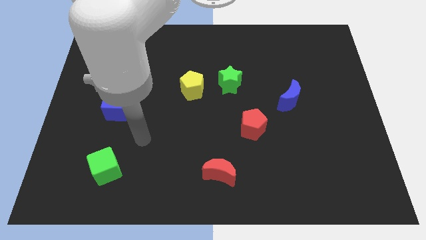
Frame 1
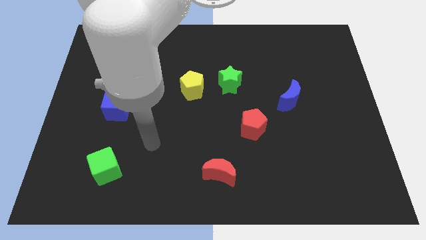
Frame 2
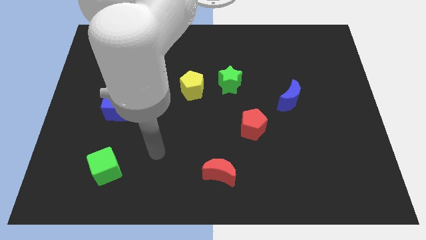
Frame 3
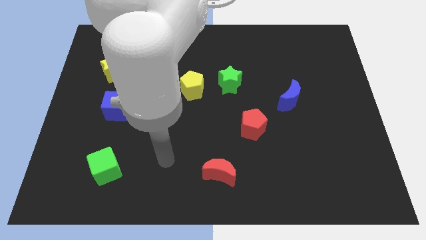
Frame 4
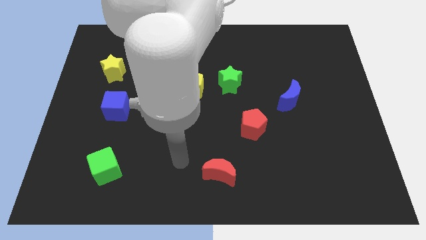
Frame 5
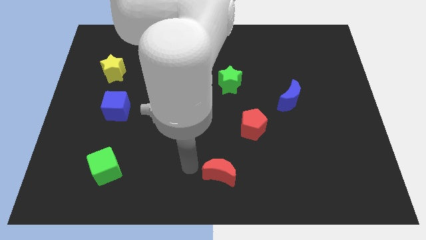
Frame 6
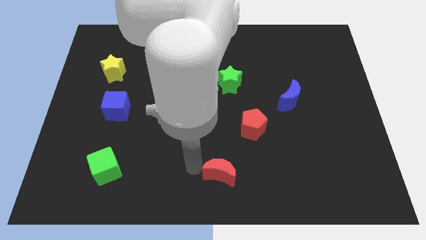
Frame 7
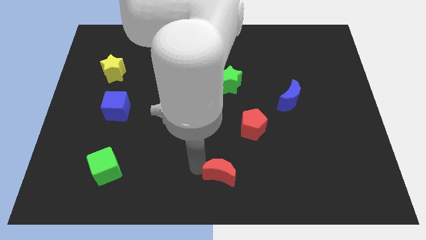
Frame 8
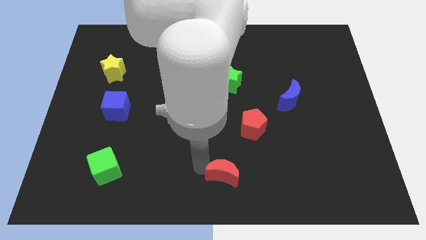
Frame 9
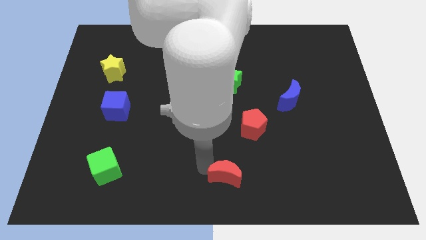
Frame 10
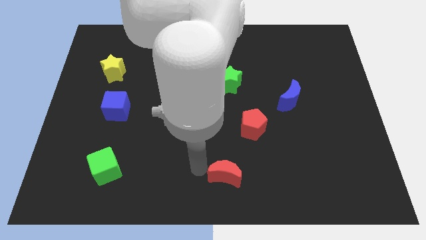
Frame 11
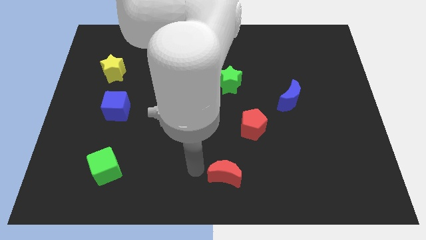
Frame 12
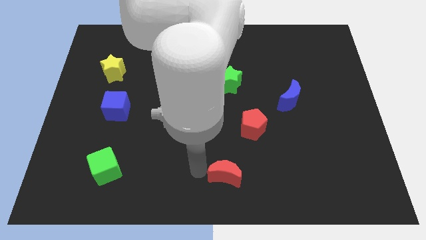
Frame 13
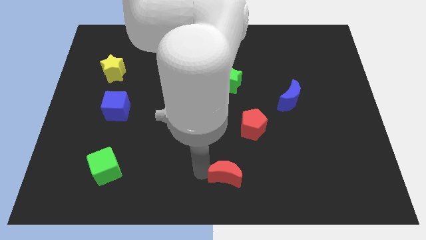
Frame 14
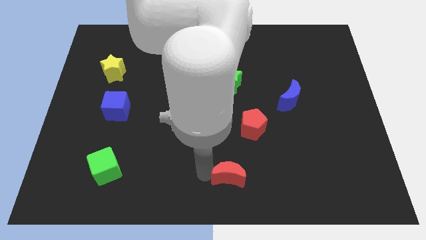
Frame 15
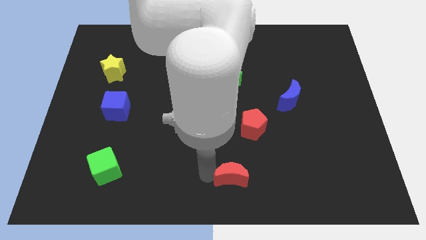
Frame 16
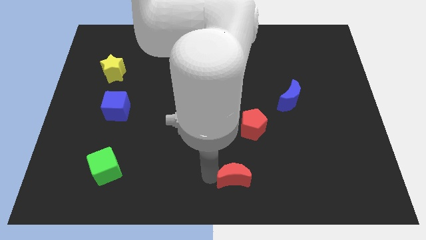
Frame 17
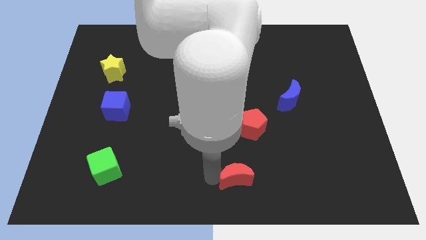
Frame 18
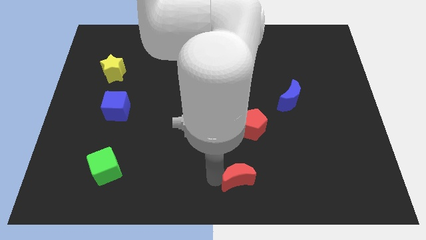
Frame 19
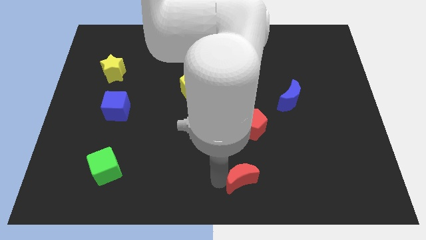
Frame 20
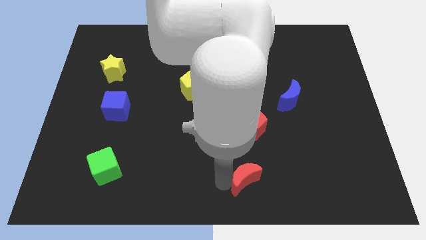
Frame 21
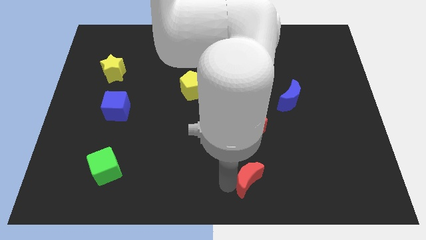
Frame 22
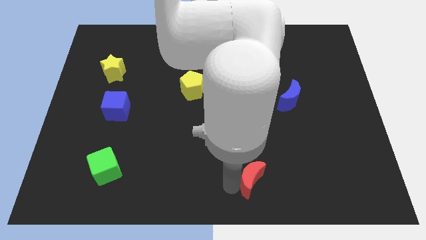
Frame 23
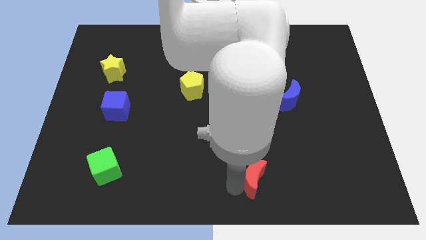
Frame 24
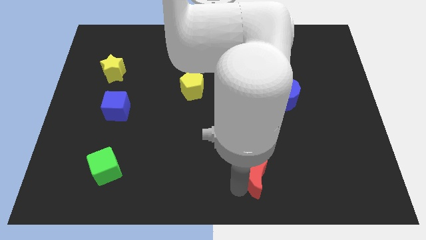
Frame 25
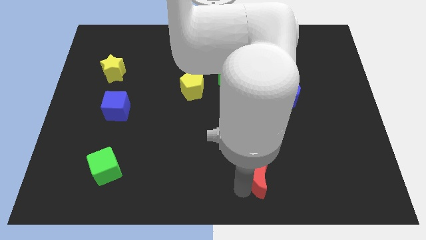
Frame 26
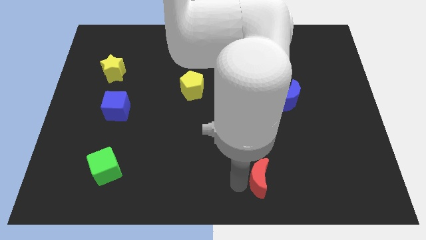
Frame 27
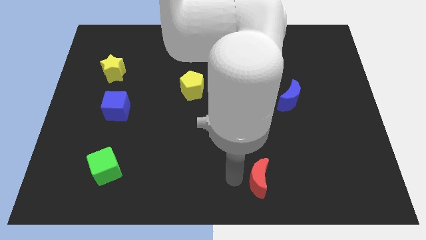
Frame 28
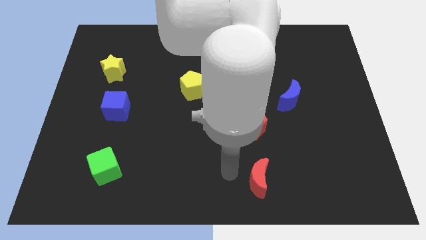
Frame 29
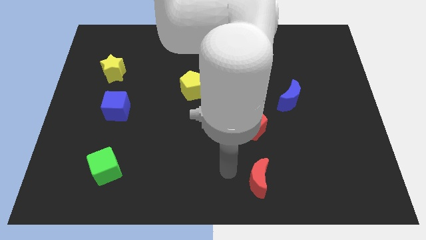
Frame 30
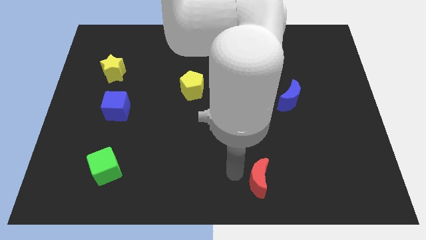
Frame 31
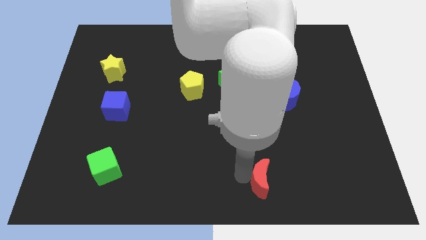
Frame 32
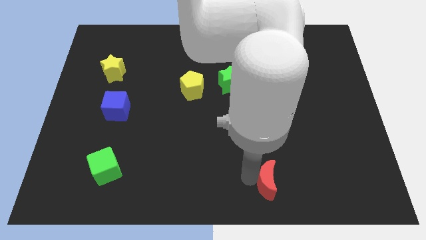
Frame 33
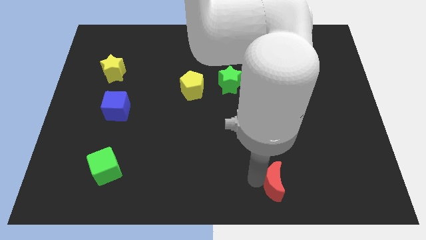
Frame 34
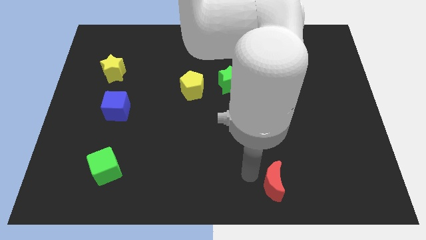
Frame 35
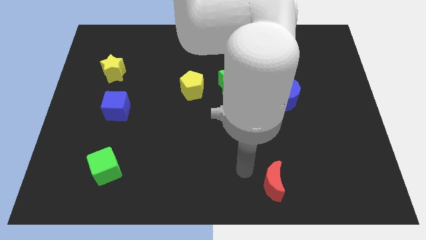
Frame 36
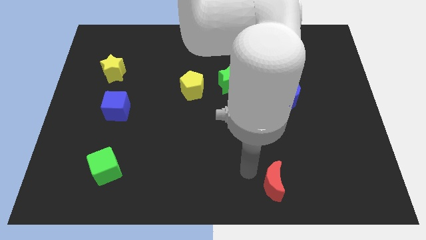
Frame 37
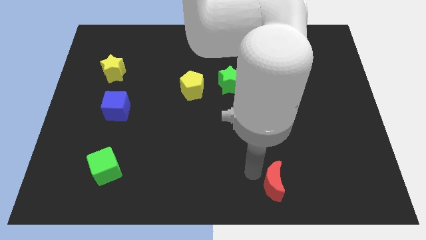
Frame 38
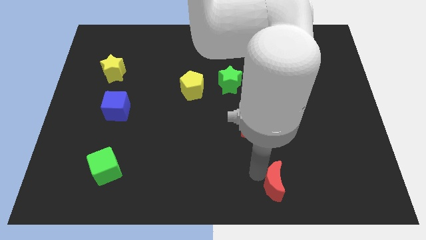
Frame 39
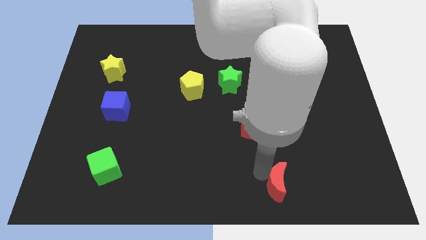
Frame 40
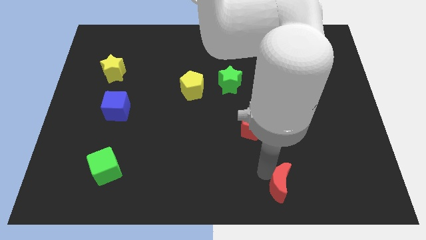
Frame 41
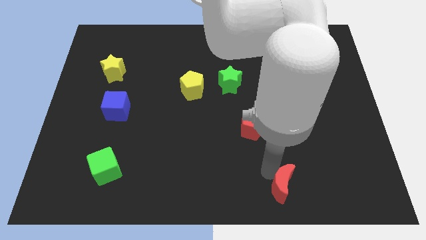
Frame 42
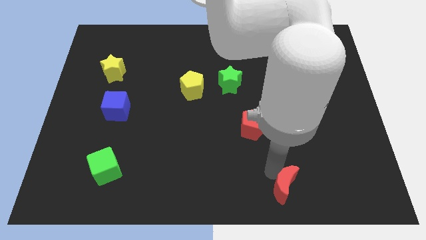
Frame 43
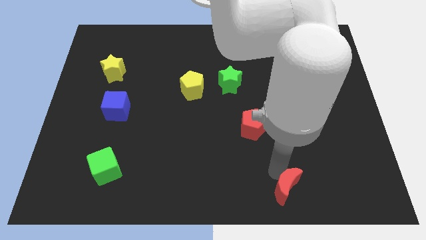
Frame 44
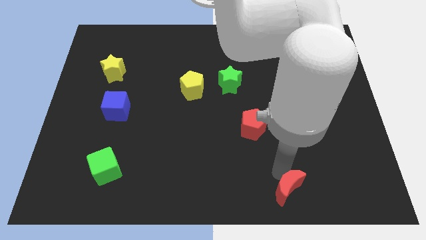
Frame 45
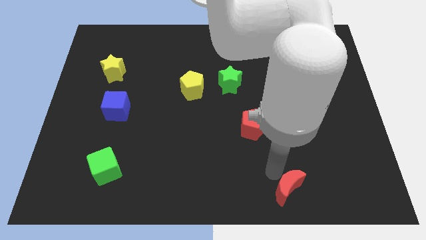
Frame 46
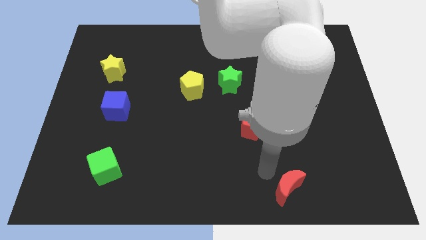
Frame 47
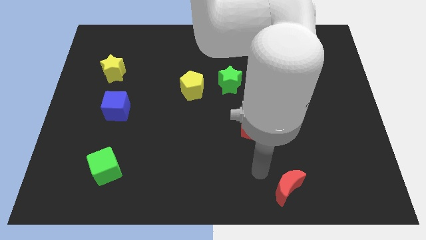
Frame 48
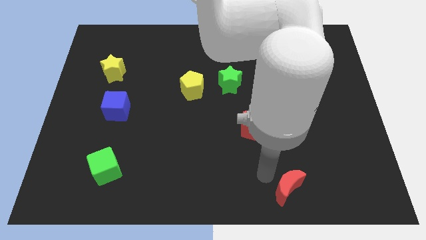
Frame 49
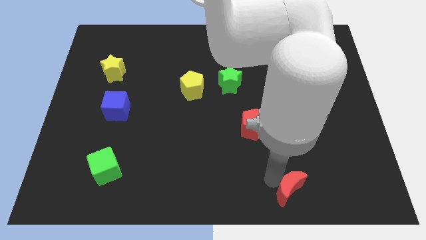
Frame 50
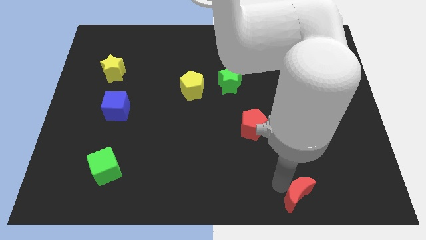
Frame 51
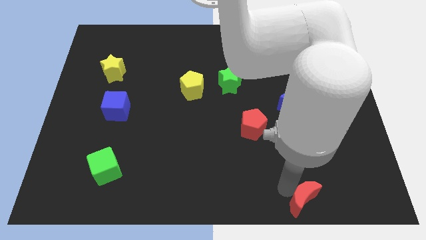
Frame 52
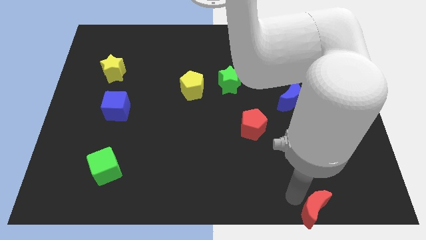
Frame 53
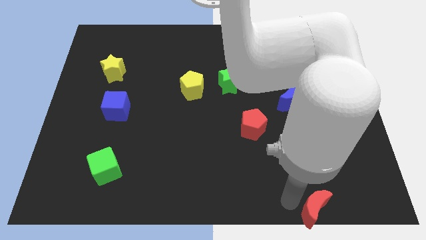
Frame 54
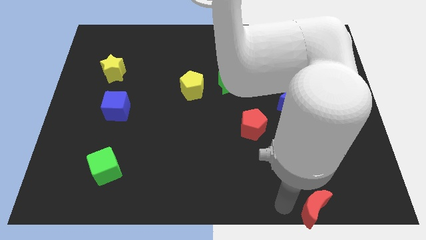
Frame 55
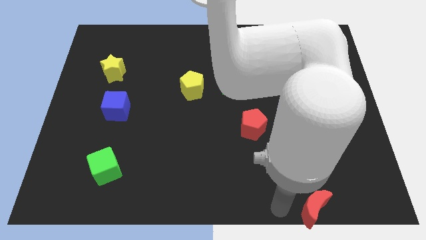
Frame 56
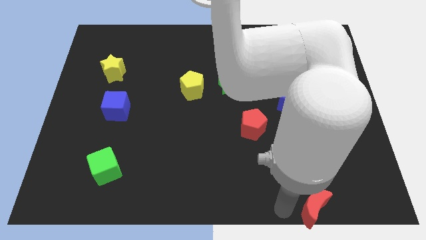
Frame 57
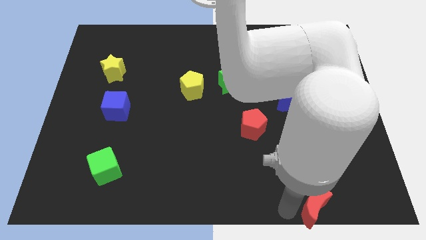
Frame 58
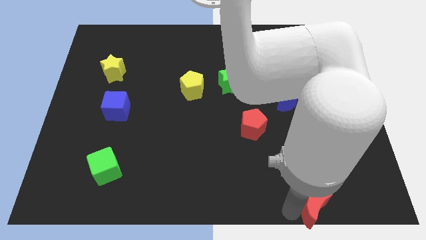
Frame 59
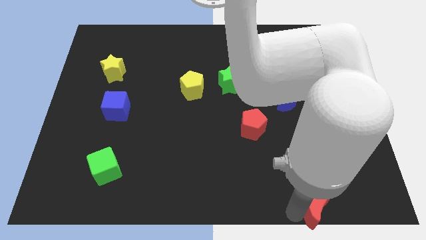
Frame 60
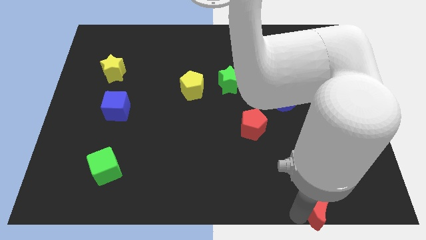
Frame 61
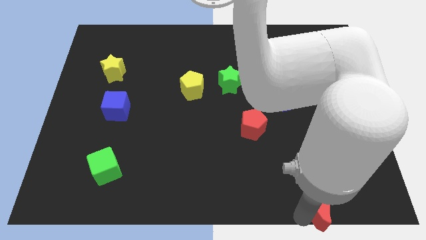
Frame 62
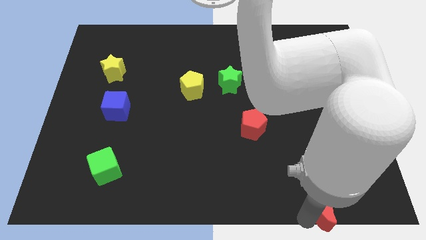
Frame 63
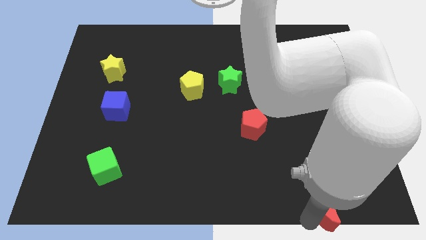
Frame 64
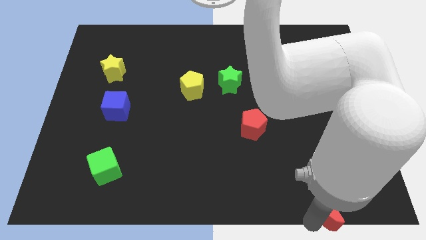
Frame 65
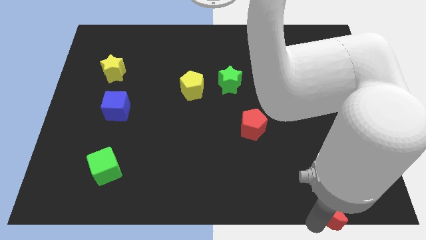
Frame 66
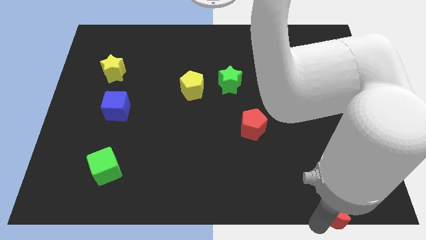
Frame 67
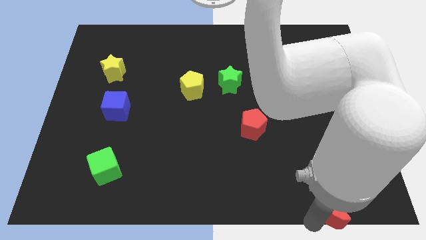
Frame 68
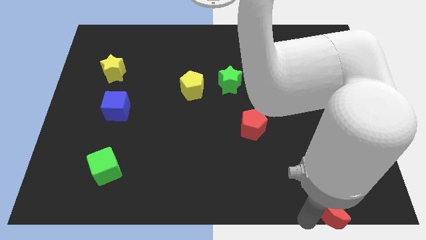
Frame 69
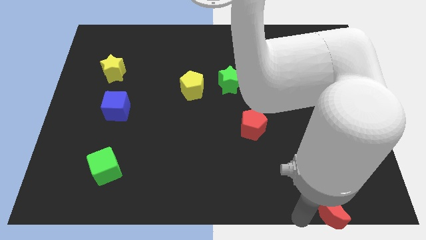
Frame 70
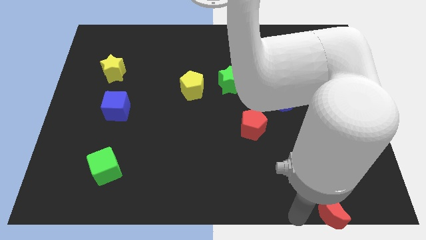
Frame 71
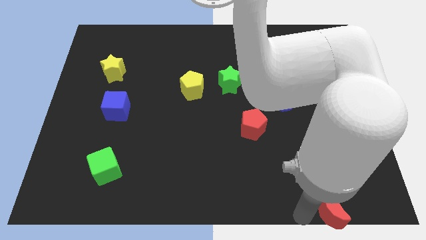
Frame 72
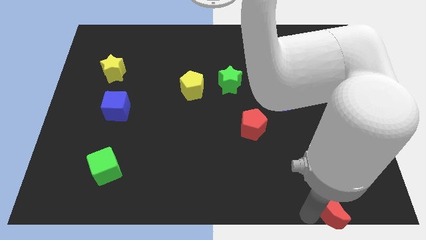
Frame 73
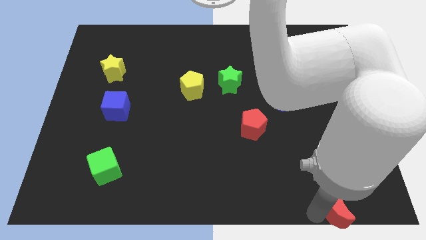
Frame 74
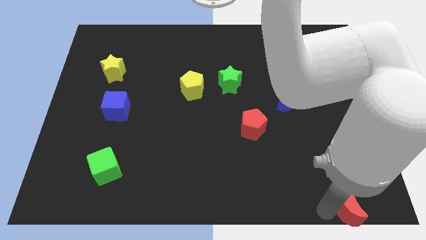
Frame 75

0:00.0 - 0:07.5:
slide the red moon to the bottom right of the board
